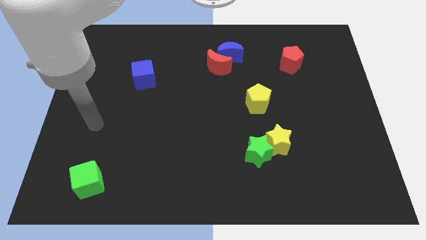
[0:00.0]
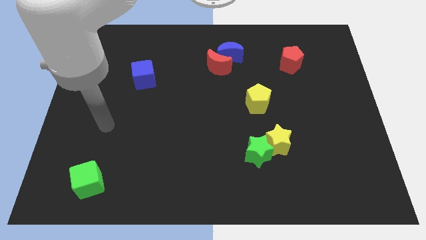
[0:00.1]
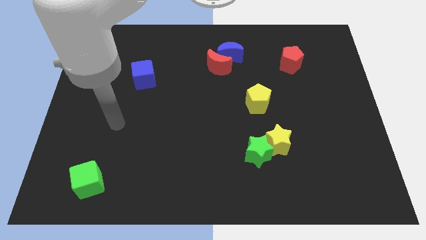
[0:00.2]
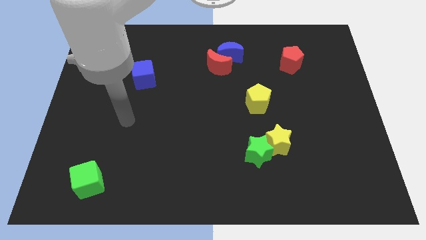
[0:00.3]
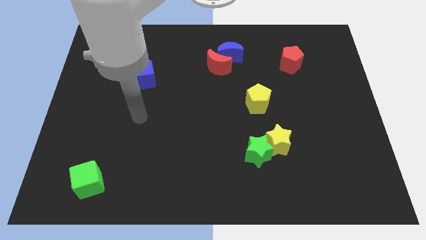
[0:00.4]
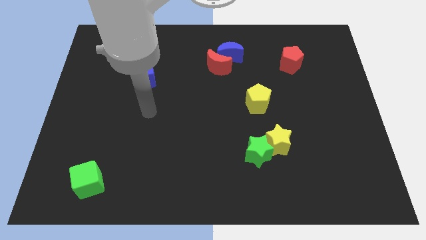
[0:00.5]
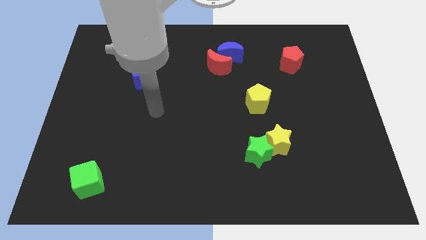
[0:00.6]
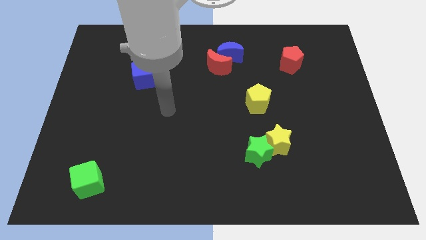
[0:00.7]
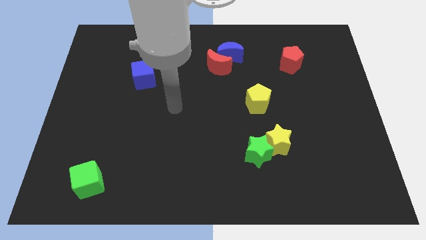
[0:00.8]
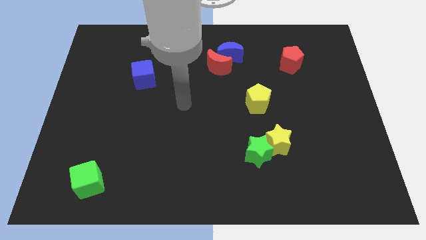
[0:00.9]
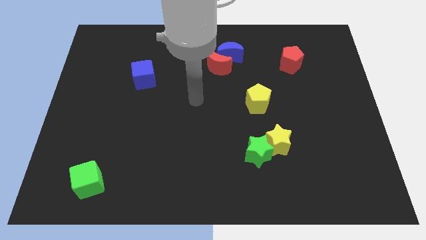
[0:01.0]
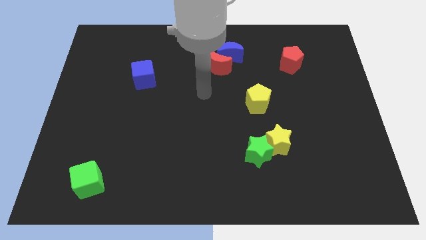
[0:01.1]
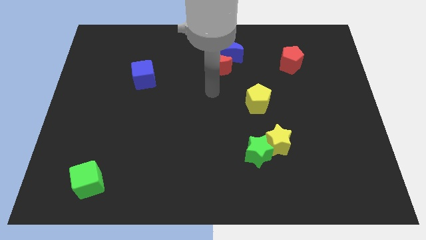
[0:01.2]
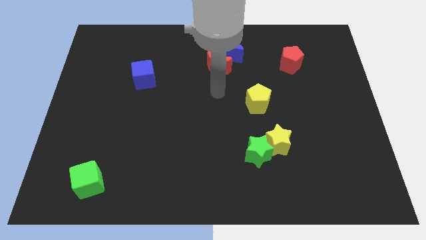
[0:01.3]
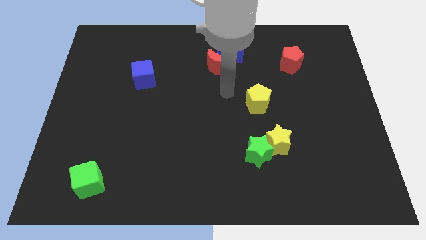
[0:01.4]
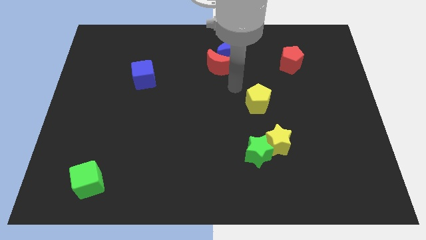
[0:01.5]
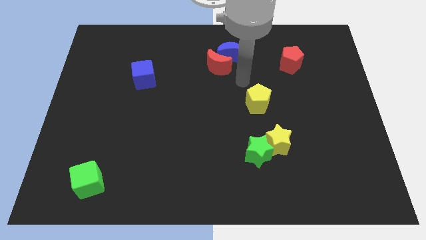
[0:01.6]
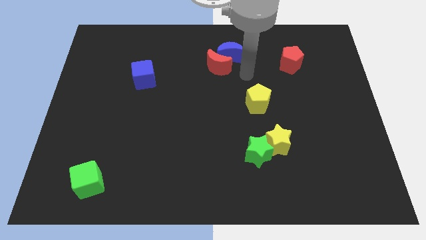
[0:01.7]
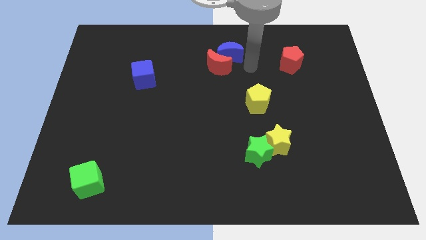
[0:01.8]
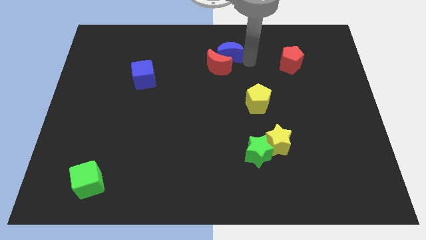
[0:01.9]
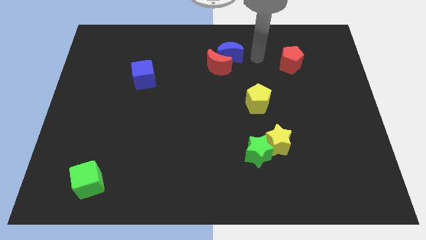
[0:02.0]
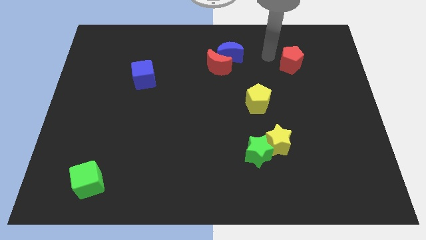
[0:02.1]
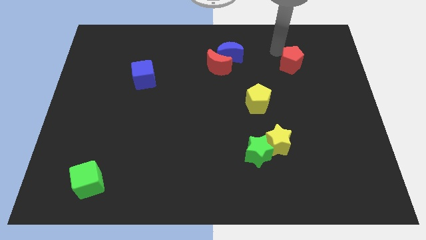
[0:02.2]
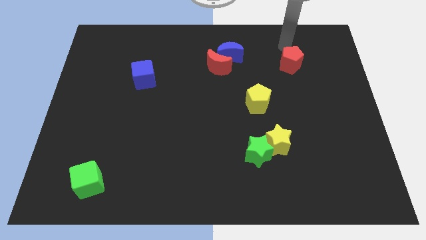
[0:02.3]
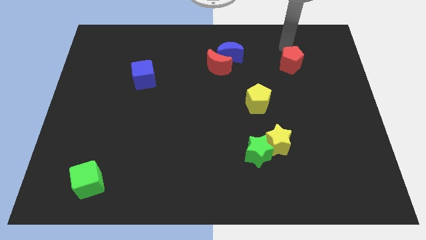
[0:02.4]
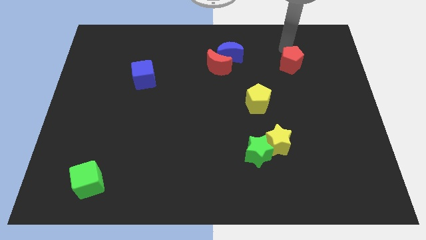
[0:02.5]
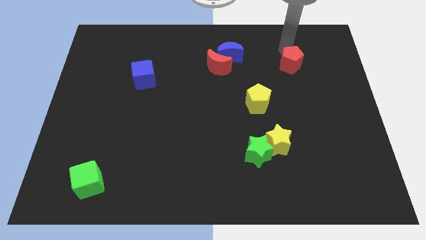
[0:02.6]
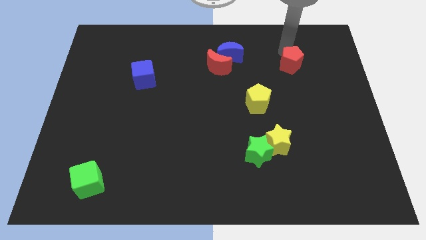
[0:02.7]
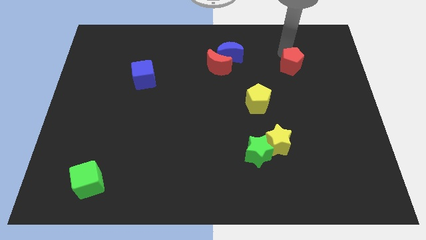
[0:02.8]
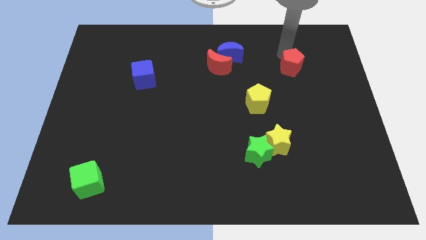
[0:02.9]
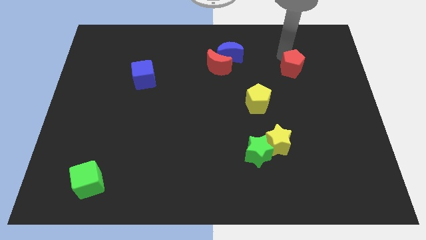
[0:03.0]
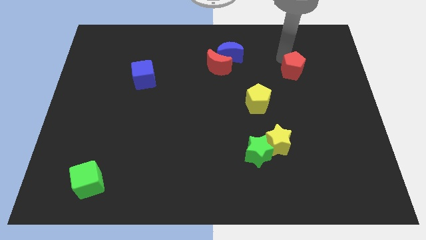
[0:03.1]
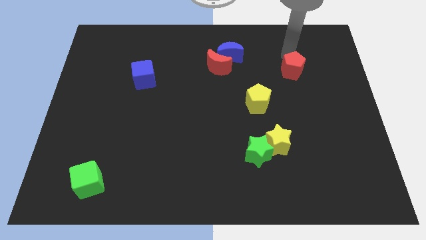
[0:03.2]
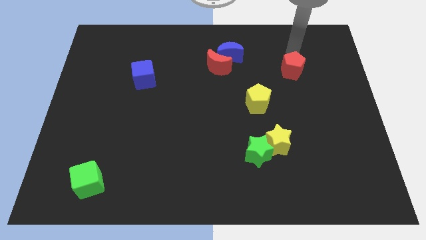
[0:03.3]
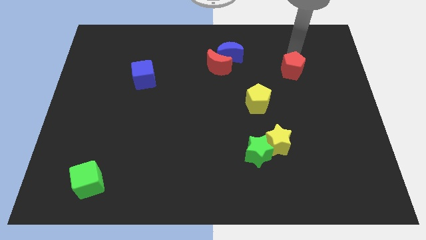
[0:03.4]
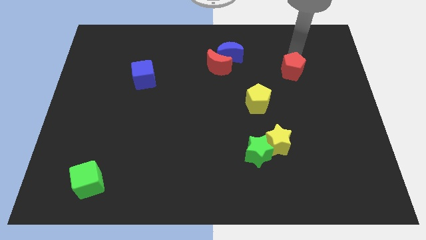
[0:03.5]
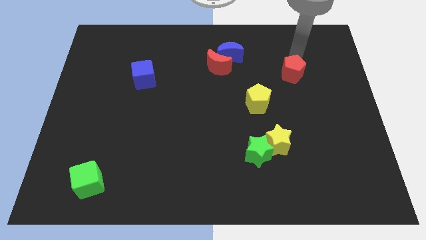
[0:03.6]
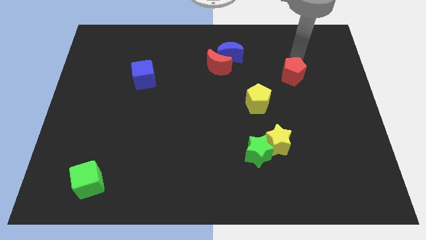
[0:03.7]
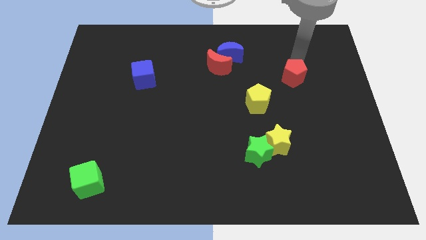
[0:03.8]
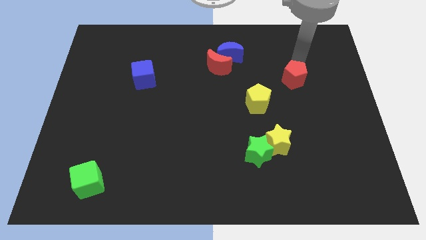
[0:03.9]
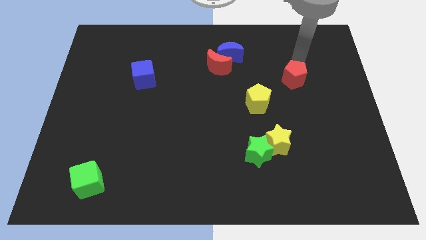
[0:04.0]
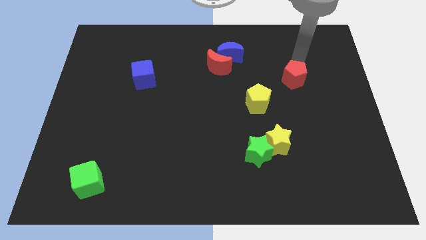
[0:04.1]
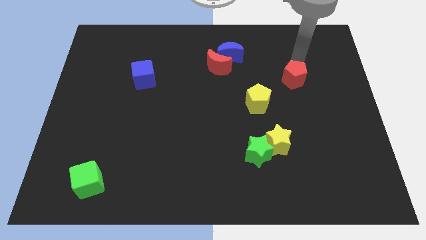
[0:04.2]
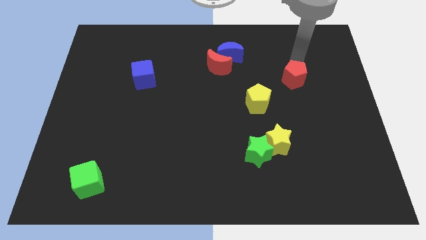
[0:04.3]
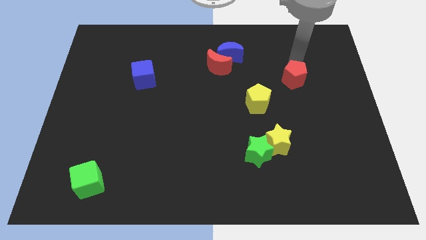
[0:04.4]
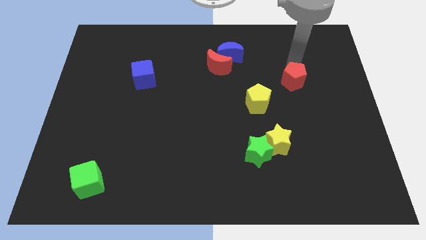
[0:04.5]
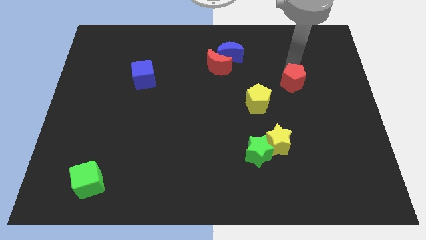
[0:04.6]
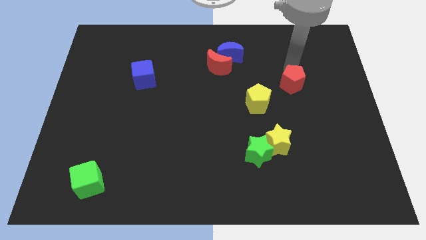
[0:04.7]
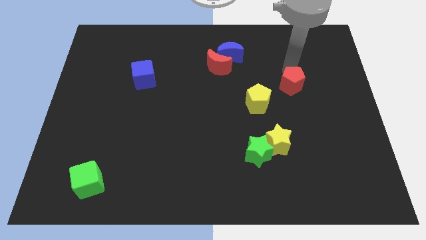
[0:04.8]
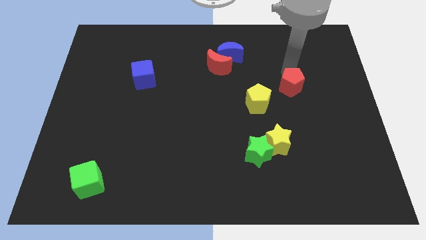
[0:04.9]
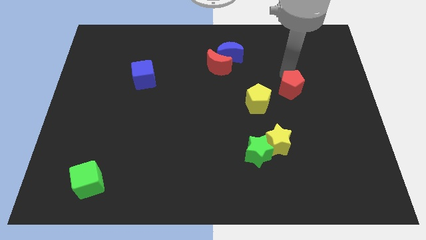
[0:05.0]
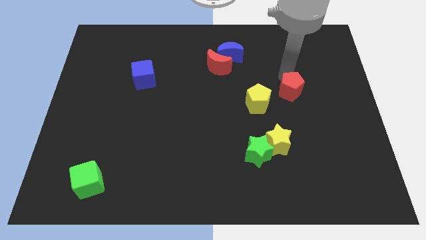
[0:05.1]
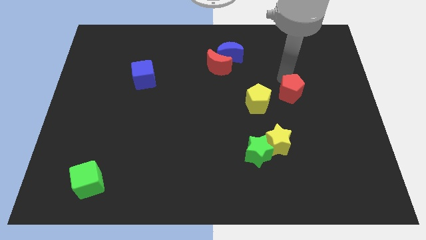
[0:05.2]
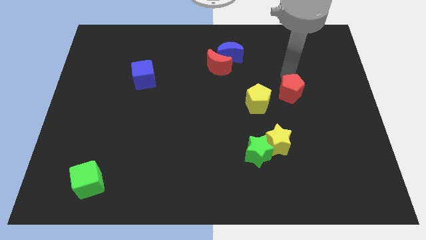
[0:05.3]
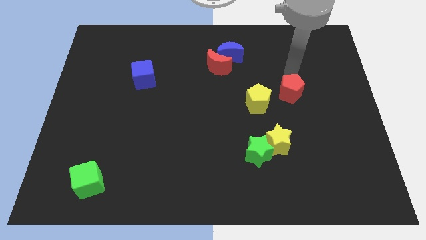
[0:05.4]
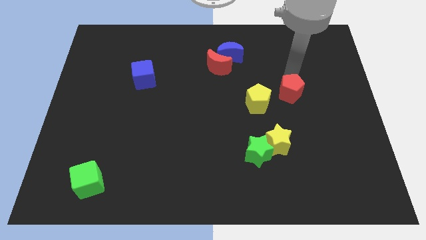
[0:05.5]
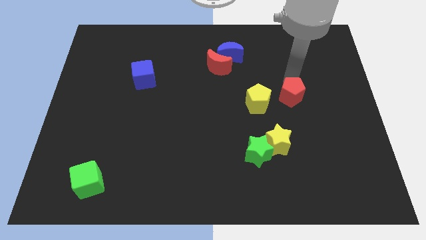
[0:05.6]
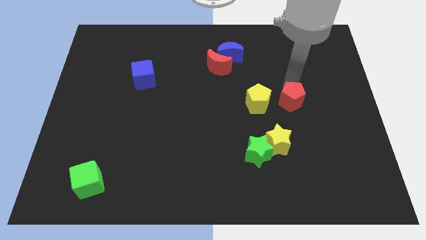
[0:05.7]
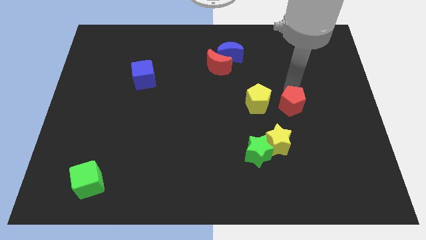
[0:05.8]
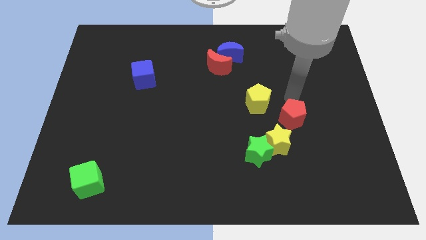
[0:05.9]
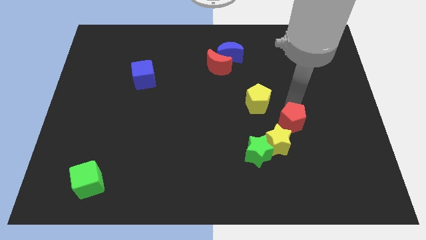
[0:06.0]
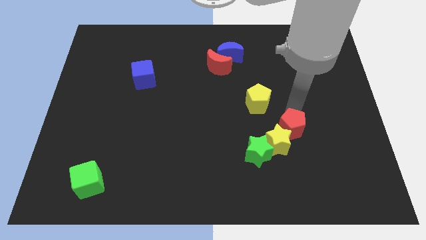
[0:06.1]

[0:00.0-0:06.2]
put the red pentagon next to the yellow star
